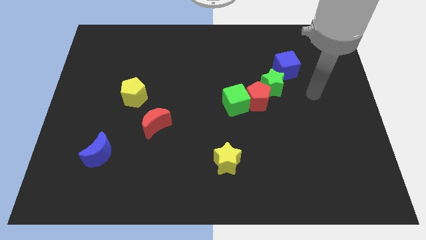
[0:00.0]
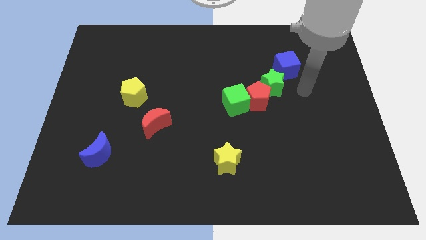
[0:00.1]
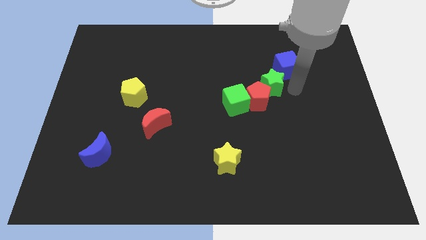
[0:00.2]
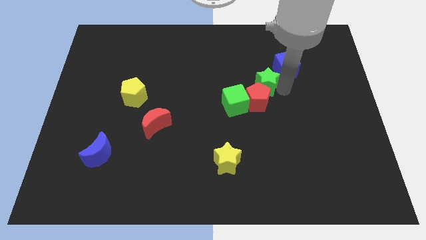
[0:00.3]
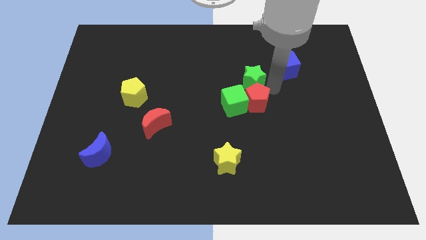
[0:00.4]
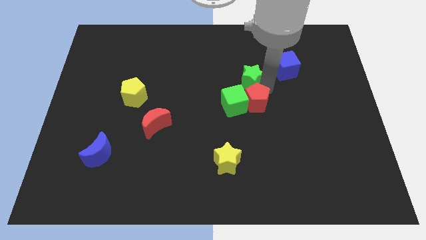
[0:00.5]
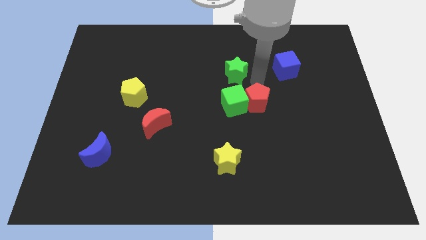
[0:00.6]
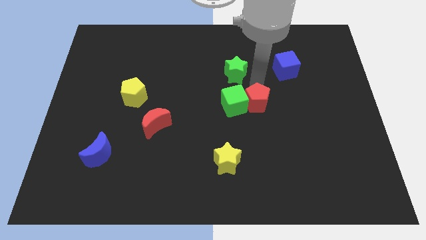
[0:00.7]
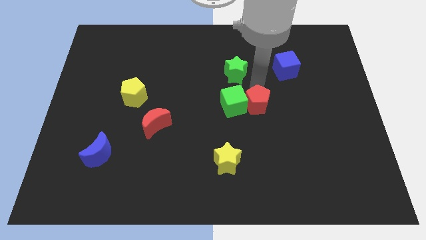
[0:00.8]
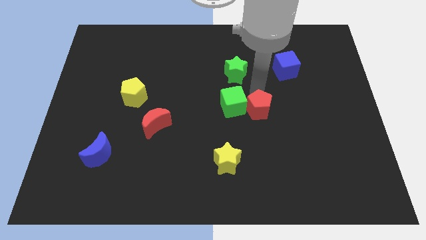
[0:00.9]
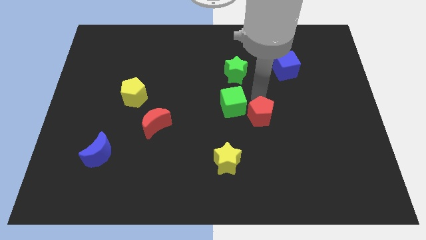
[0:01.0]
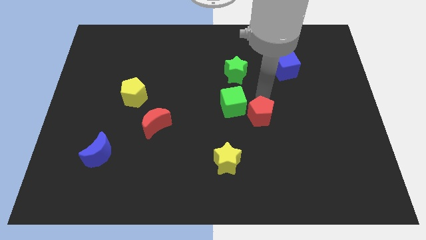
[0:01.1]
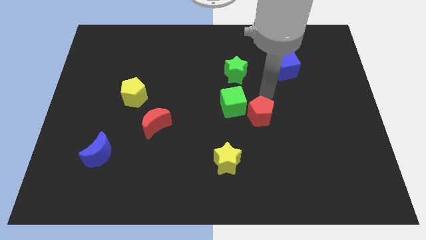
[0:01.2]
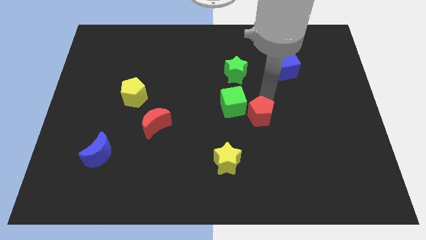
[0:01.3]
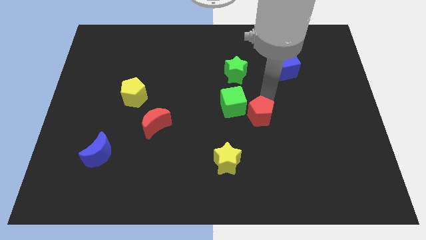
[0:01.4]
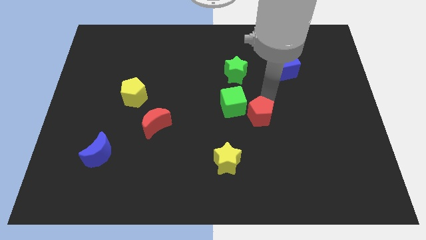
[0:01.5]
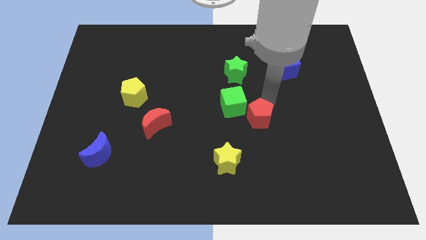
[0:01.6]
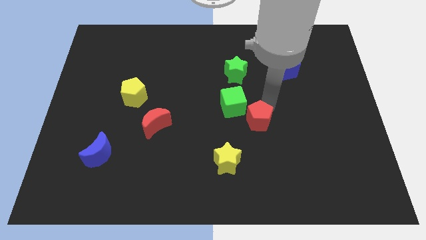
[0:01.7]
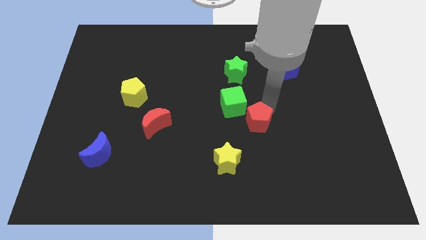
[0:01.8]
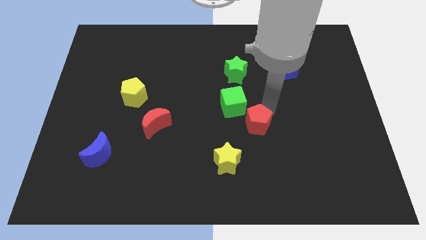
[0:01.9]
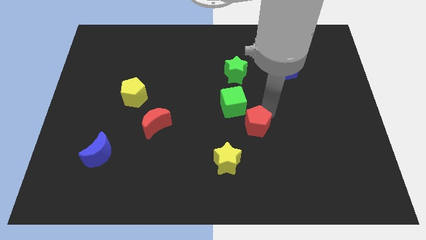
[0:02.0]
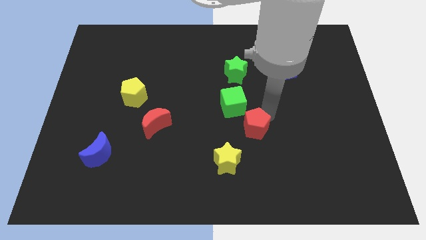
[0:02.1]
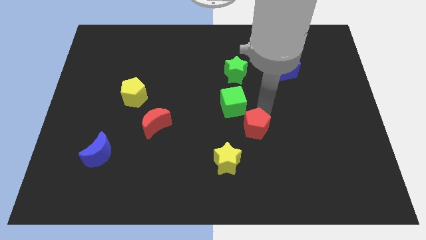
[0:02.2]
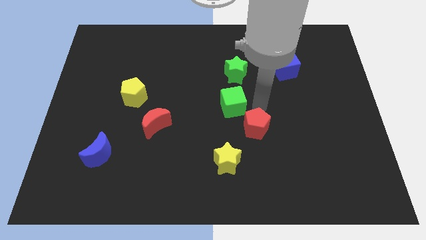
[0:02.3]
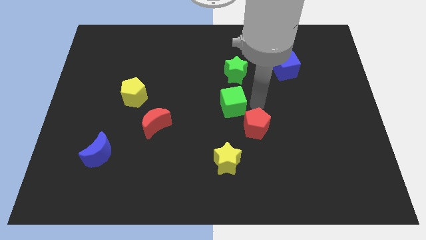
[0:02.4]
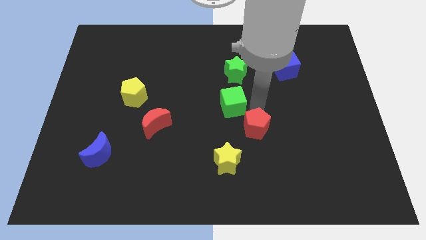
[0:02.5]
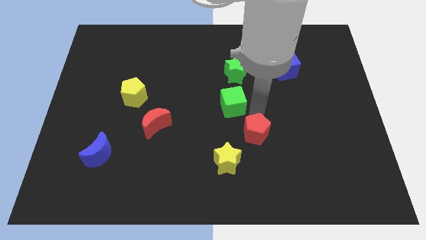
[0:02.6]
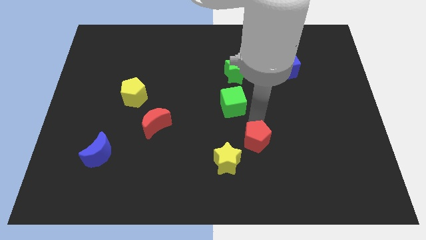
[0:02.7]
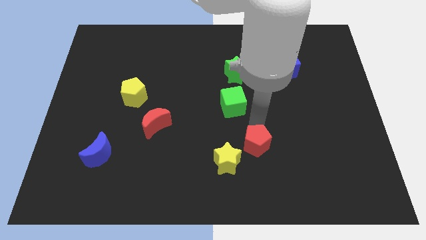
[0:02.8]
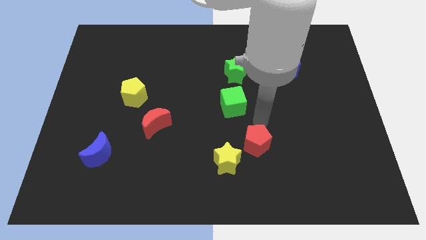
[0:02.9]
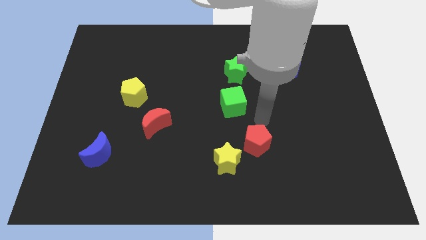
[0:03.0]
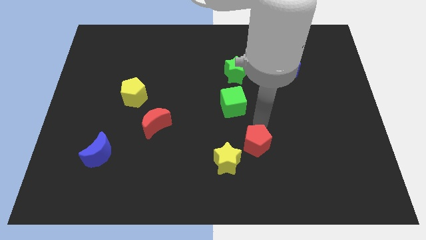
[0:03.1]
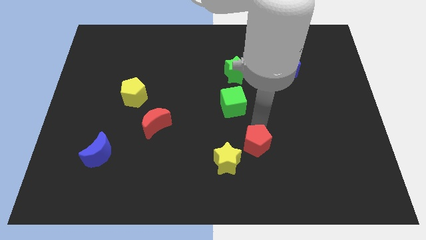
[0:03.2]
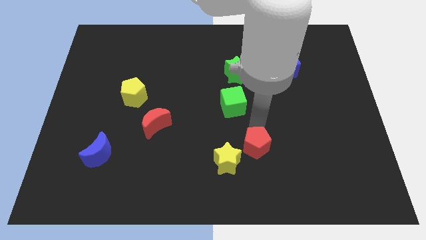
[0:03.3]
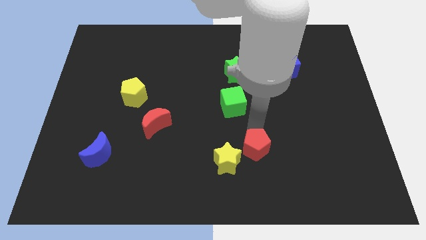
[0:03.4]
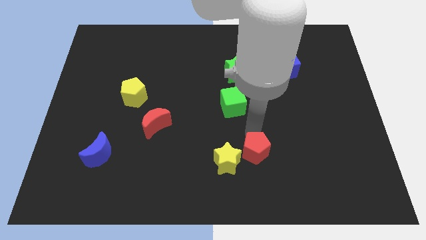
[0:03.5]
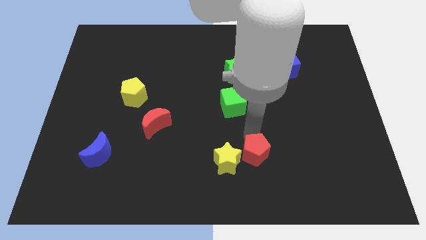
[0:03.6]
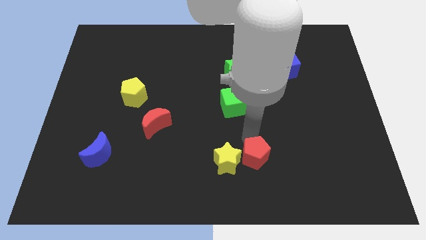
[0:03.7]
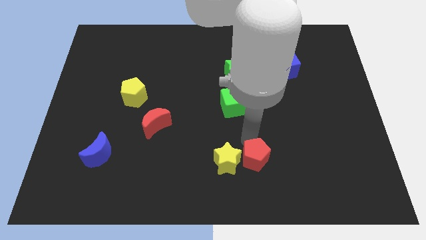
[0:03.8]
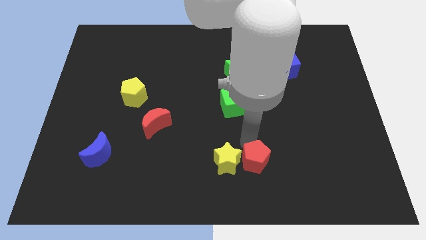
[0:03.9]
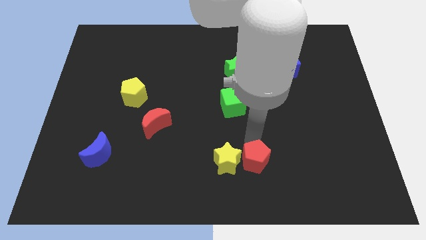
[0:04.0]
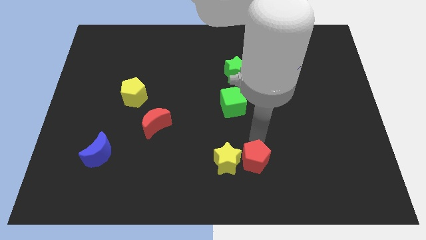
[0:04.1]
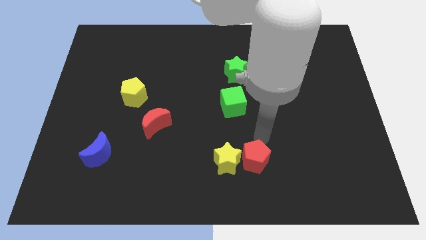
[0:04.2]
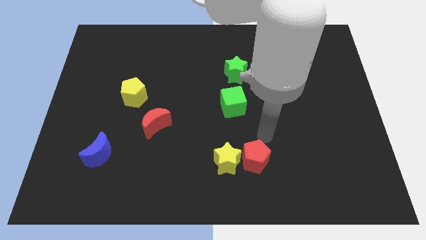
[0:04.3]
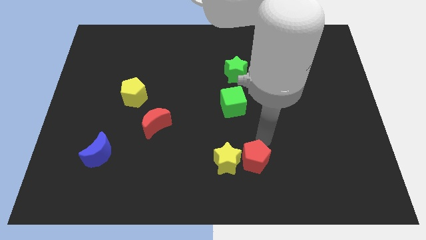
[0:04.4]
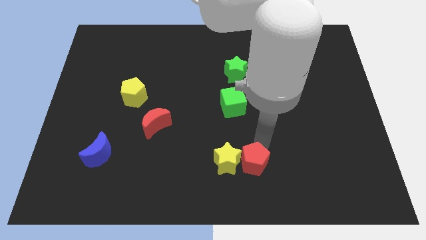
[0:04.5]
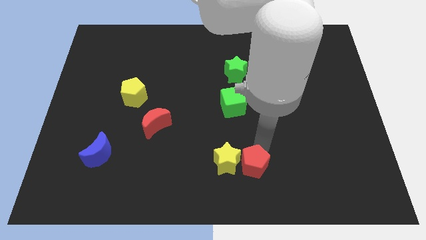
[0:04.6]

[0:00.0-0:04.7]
push the red pentagon to the bottom

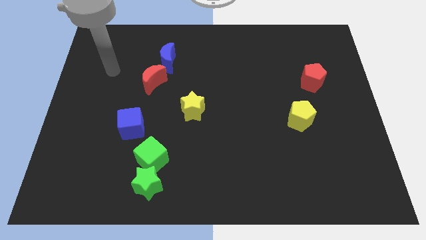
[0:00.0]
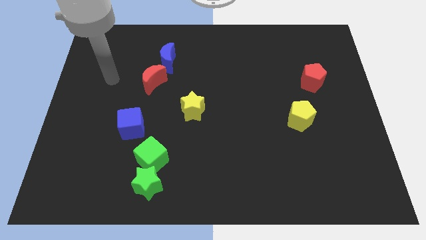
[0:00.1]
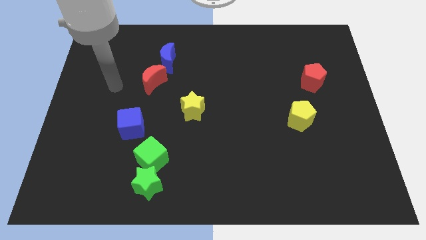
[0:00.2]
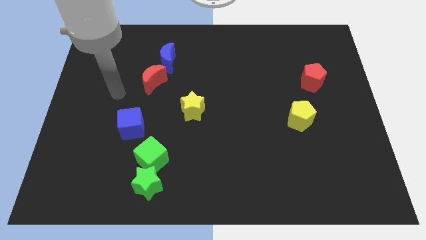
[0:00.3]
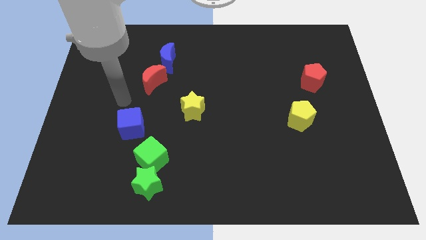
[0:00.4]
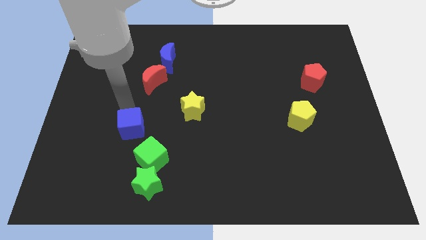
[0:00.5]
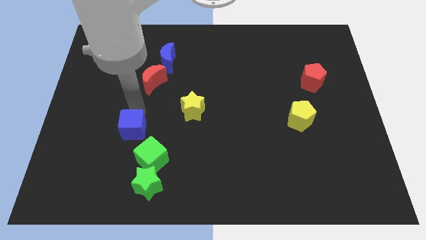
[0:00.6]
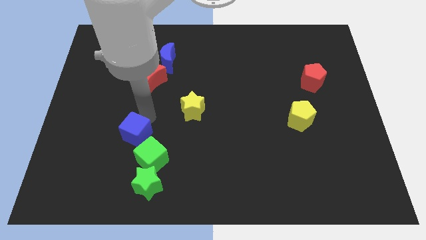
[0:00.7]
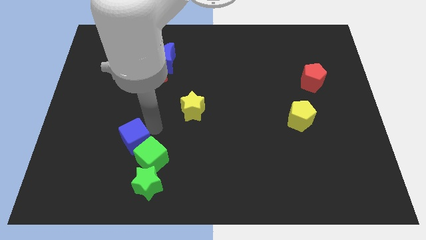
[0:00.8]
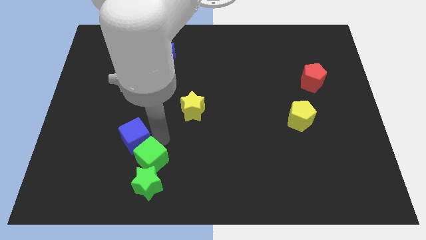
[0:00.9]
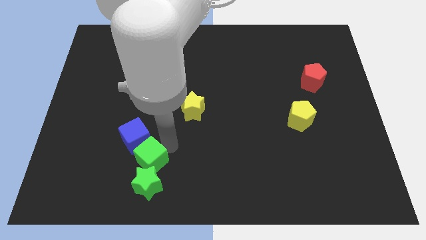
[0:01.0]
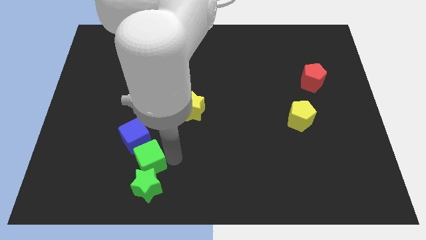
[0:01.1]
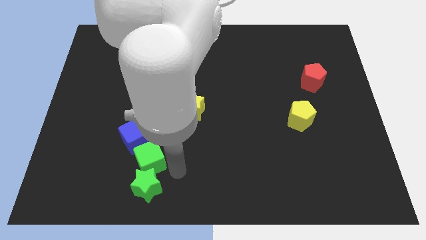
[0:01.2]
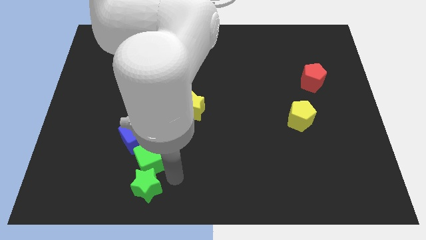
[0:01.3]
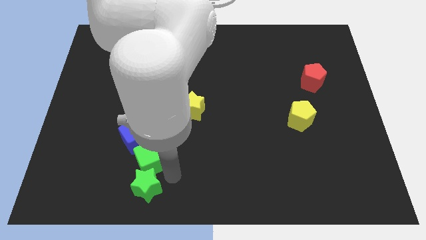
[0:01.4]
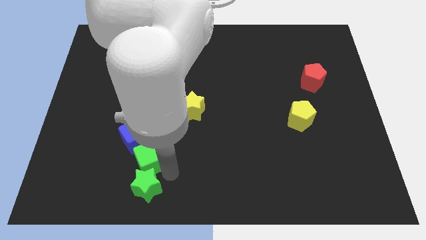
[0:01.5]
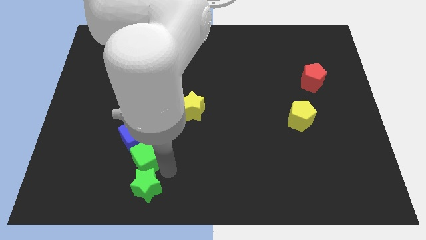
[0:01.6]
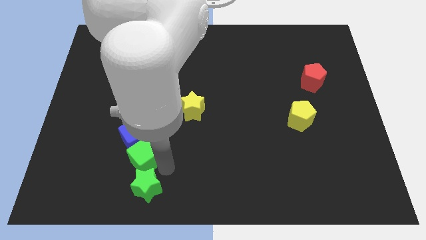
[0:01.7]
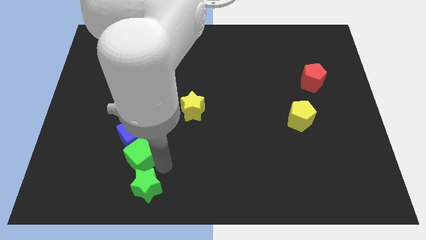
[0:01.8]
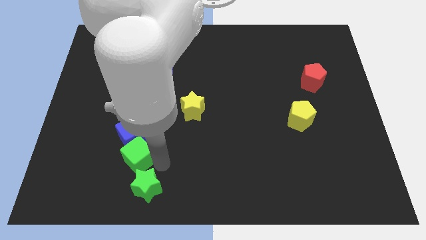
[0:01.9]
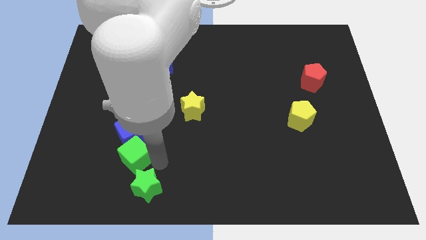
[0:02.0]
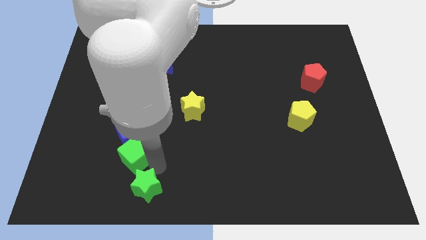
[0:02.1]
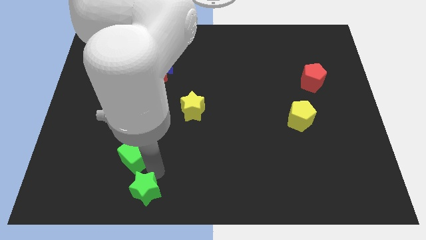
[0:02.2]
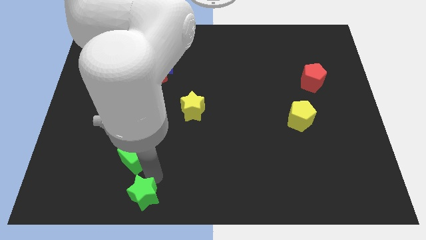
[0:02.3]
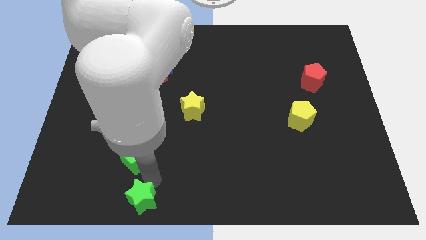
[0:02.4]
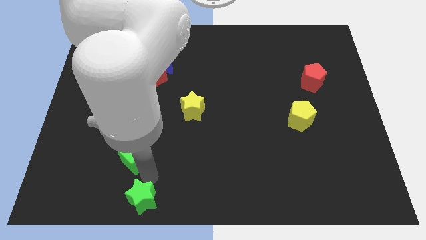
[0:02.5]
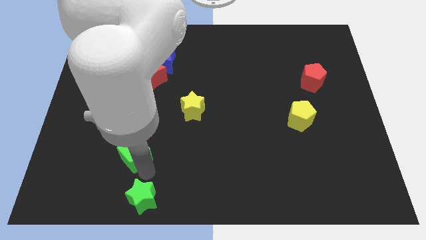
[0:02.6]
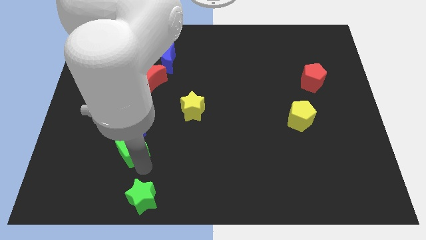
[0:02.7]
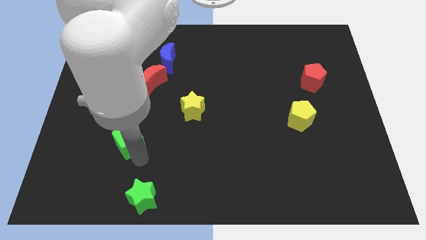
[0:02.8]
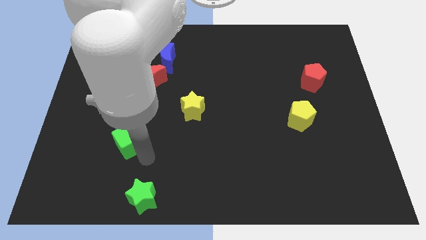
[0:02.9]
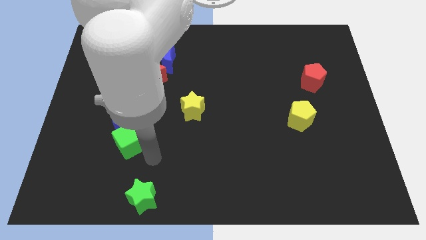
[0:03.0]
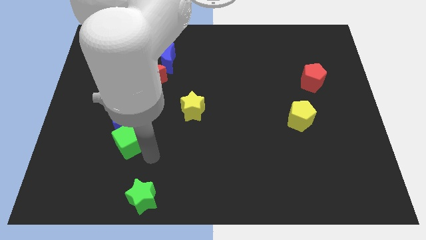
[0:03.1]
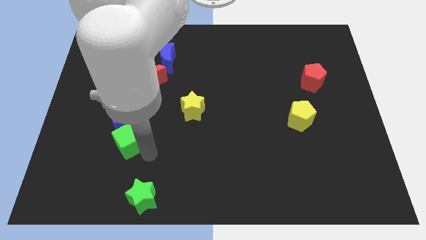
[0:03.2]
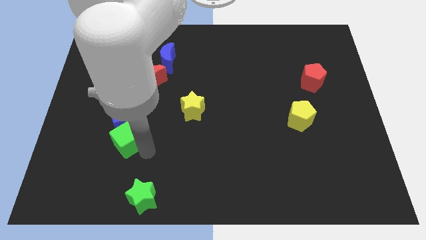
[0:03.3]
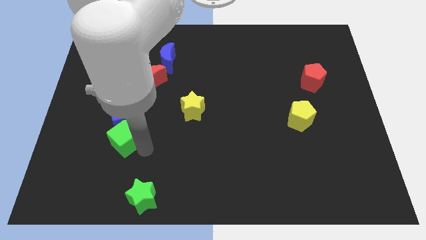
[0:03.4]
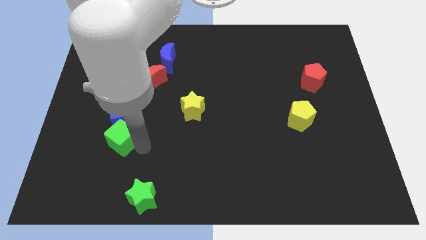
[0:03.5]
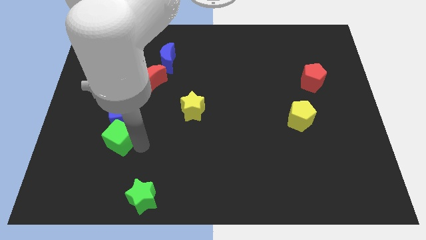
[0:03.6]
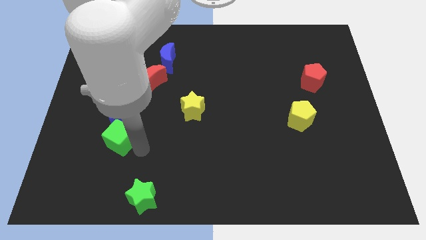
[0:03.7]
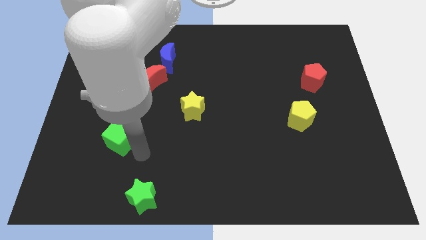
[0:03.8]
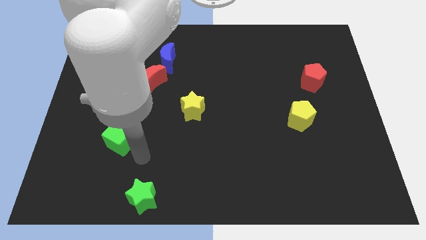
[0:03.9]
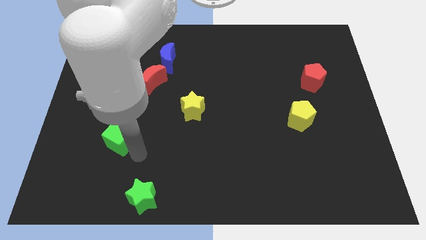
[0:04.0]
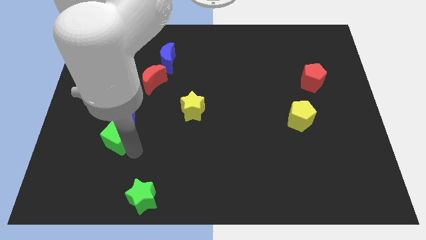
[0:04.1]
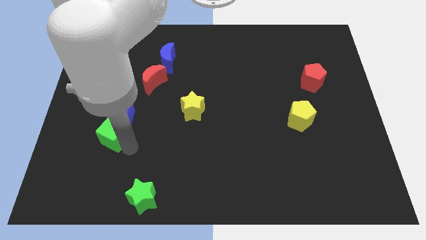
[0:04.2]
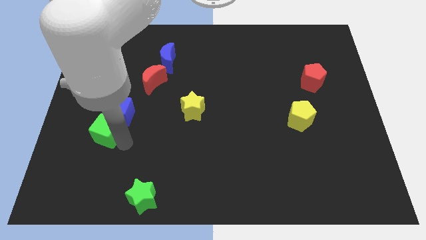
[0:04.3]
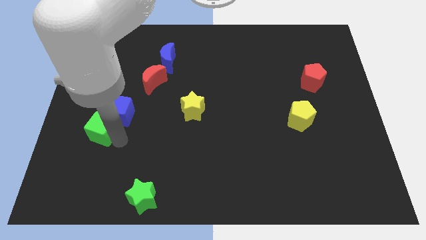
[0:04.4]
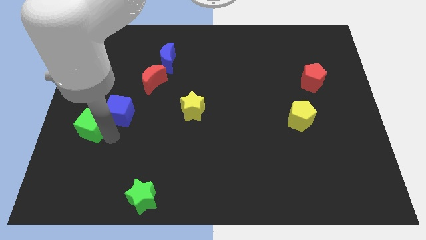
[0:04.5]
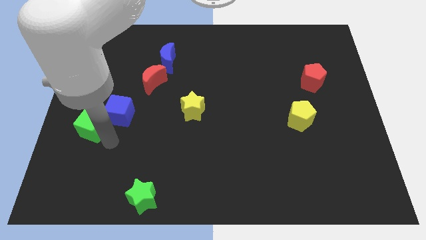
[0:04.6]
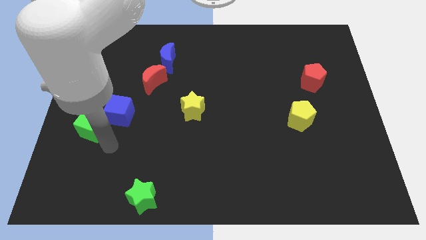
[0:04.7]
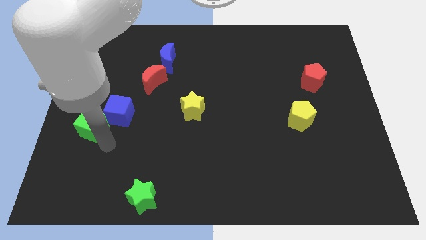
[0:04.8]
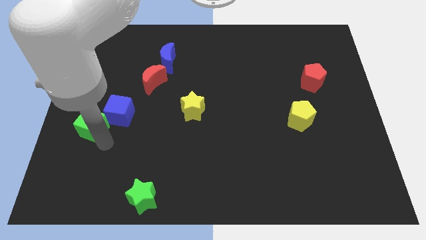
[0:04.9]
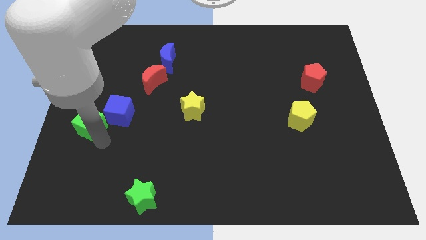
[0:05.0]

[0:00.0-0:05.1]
slide the green cube to the left side
